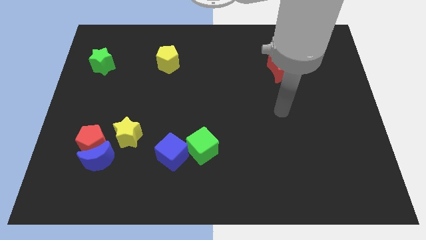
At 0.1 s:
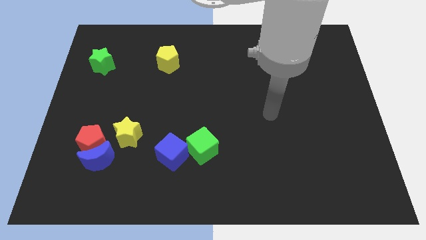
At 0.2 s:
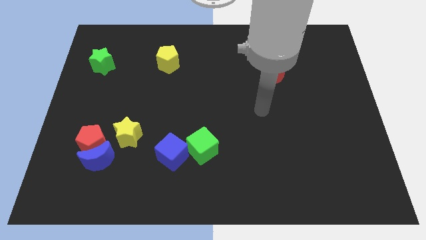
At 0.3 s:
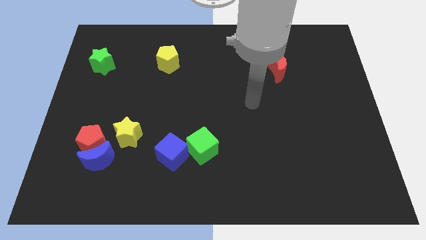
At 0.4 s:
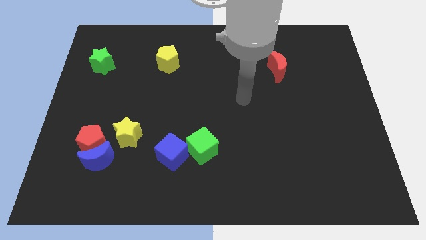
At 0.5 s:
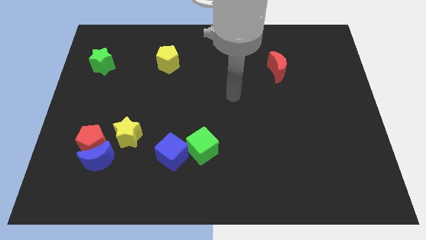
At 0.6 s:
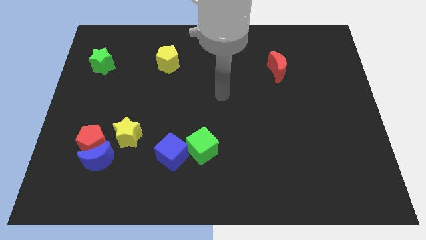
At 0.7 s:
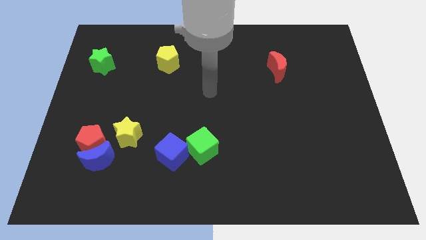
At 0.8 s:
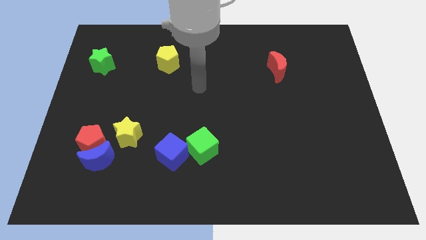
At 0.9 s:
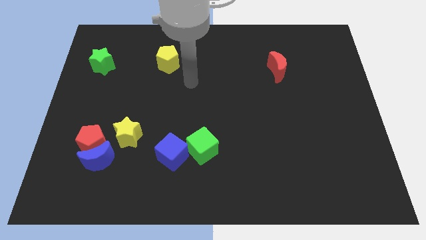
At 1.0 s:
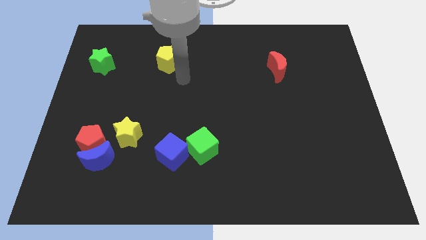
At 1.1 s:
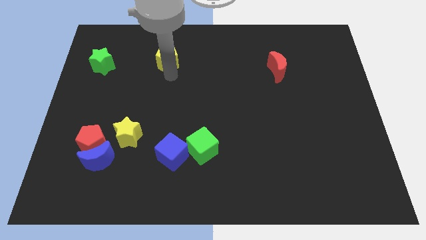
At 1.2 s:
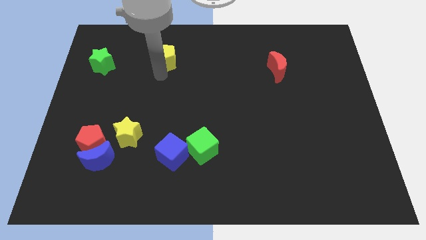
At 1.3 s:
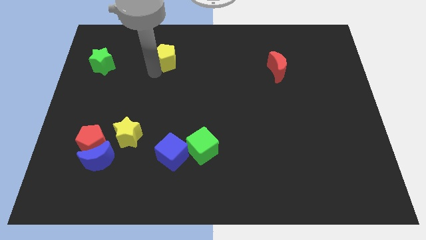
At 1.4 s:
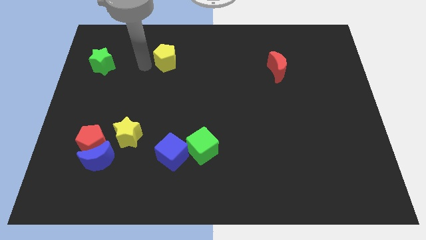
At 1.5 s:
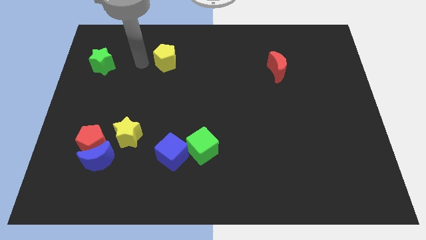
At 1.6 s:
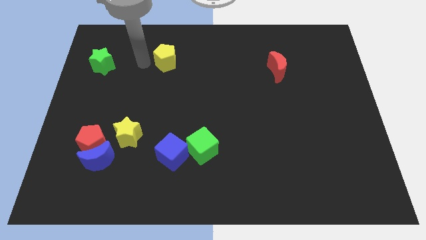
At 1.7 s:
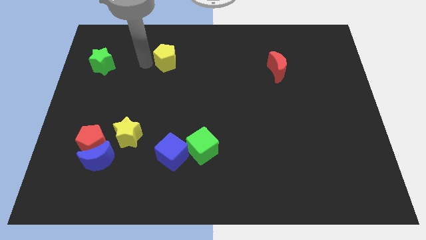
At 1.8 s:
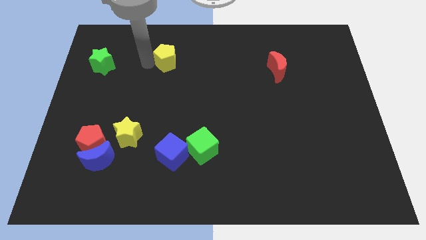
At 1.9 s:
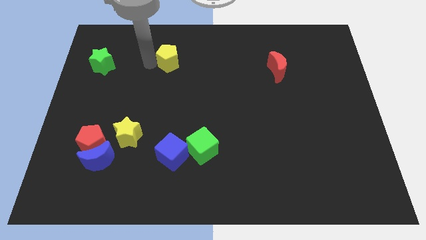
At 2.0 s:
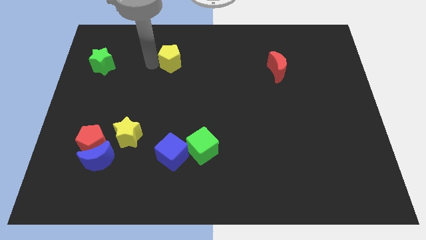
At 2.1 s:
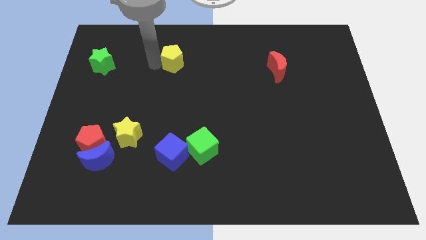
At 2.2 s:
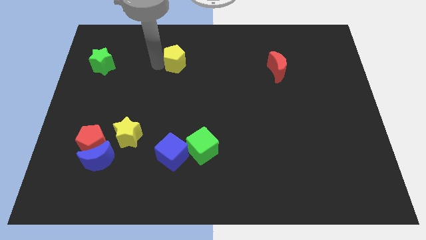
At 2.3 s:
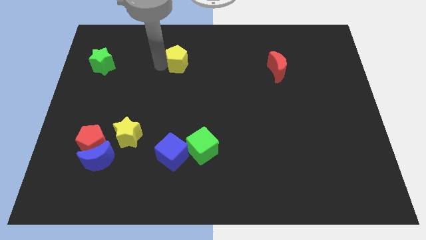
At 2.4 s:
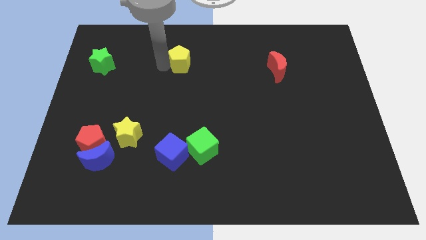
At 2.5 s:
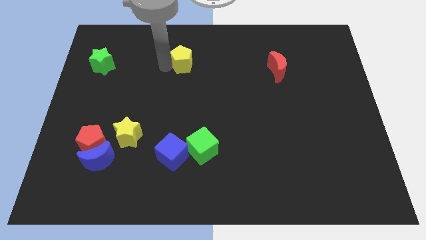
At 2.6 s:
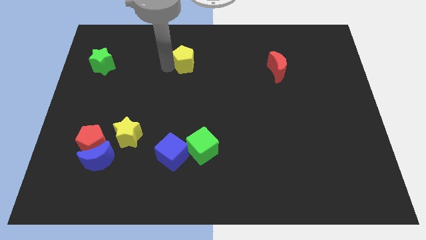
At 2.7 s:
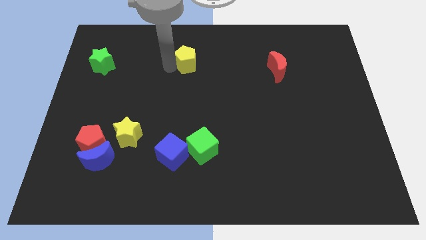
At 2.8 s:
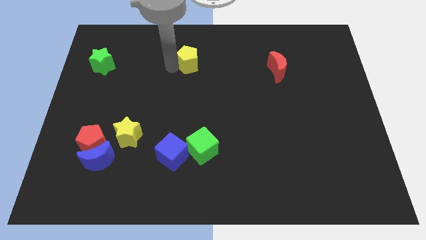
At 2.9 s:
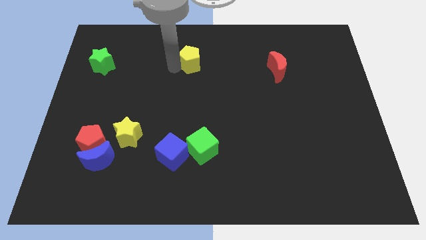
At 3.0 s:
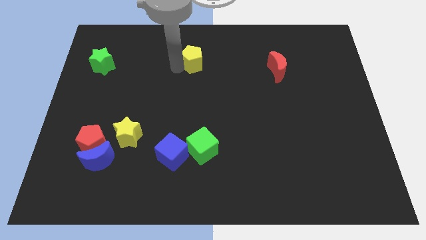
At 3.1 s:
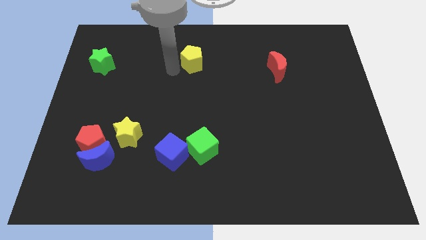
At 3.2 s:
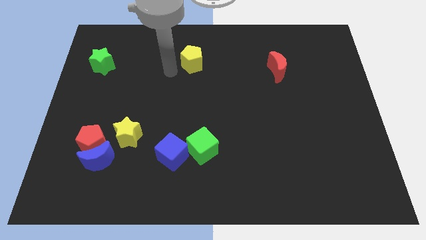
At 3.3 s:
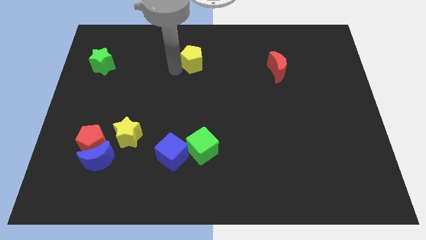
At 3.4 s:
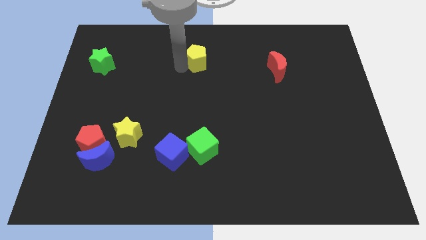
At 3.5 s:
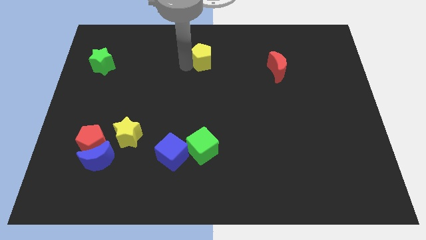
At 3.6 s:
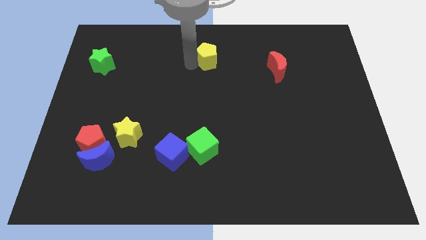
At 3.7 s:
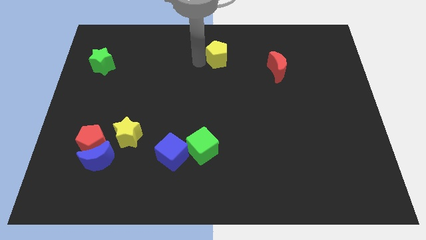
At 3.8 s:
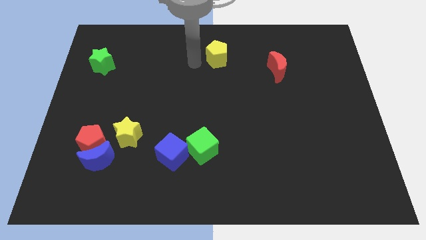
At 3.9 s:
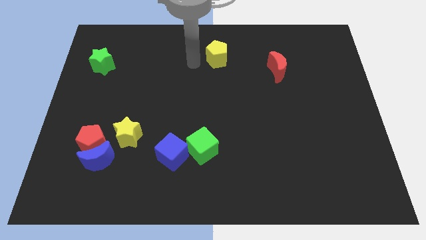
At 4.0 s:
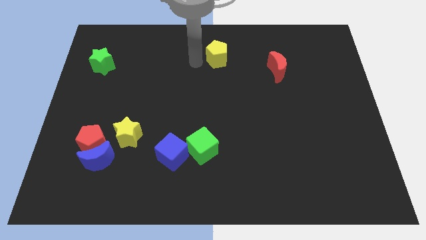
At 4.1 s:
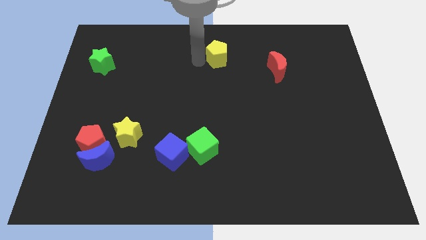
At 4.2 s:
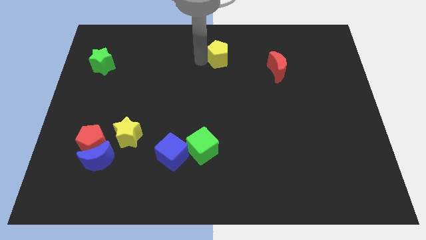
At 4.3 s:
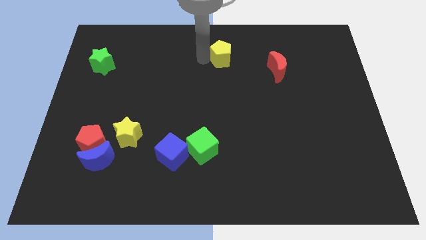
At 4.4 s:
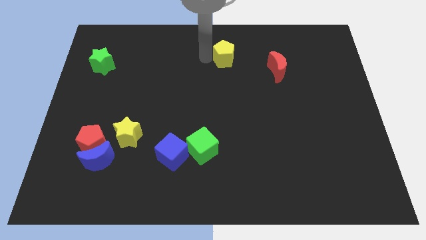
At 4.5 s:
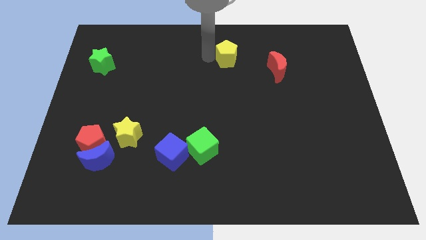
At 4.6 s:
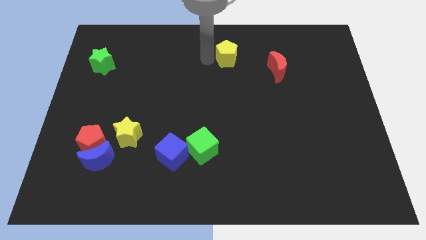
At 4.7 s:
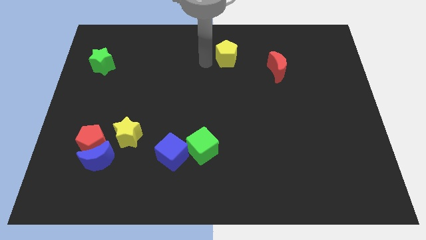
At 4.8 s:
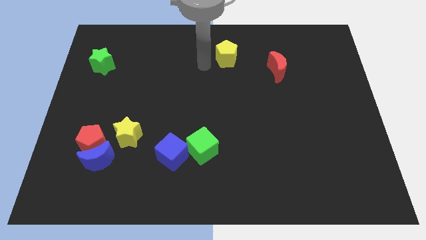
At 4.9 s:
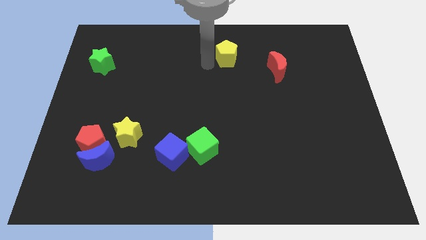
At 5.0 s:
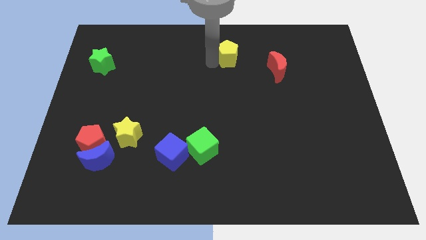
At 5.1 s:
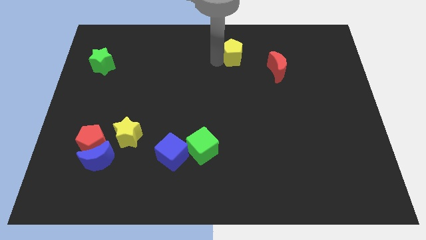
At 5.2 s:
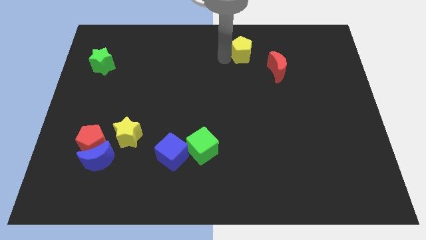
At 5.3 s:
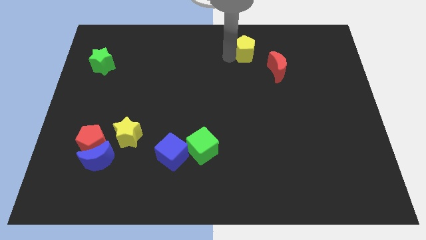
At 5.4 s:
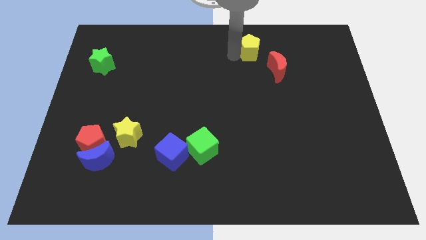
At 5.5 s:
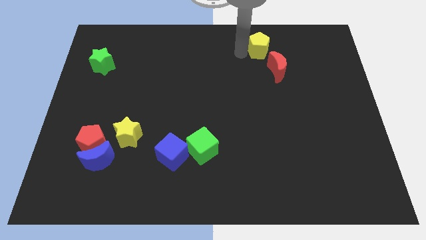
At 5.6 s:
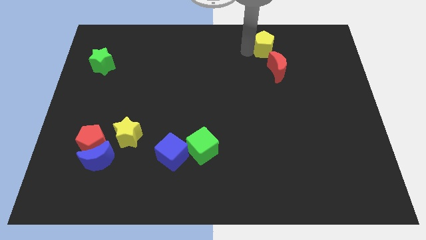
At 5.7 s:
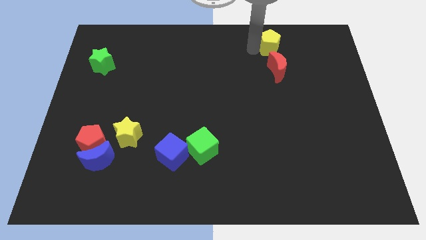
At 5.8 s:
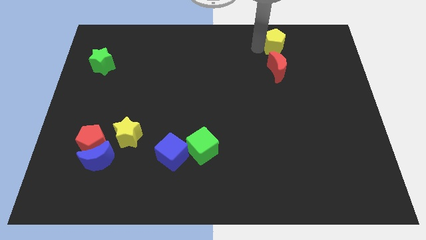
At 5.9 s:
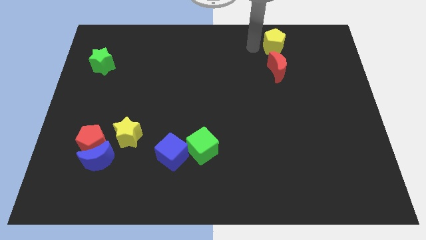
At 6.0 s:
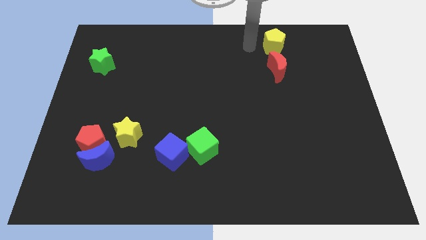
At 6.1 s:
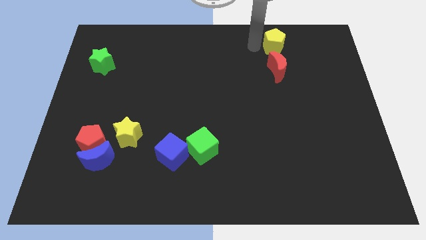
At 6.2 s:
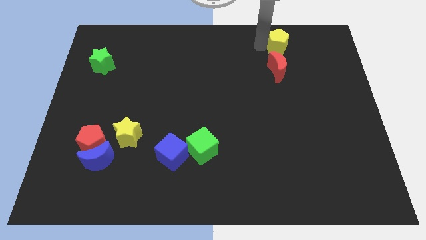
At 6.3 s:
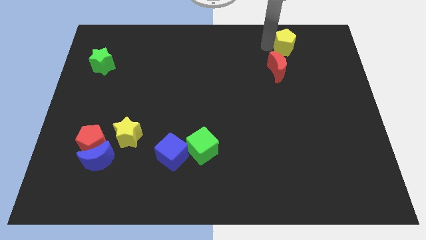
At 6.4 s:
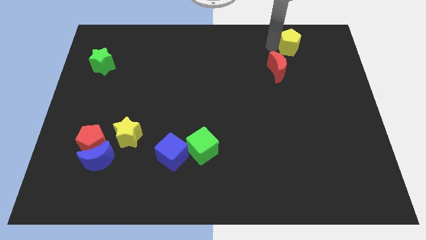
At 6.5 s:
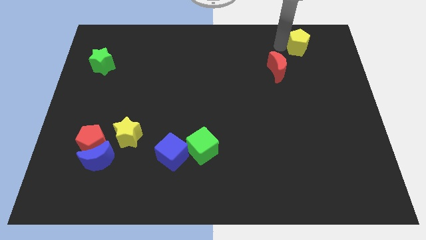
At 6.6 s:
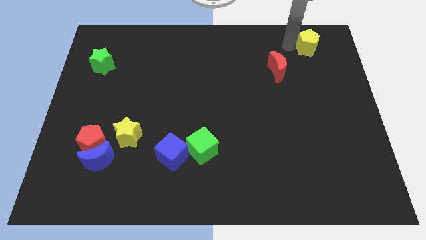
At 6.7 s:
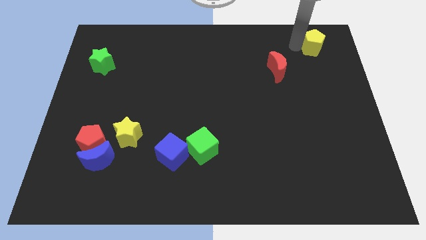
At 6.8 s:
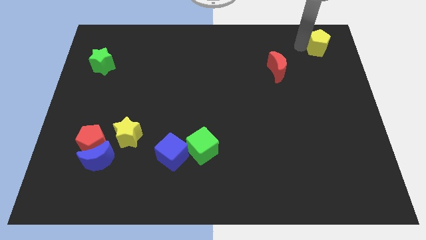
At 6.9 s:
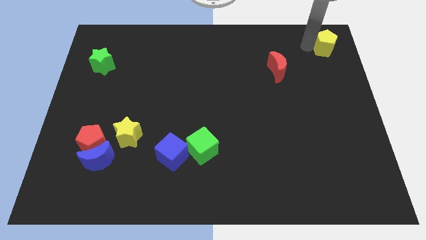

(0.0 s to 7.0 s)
put the yellow pentagon to the top right corner
